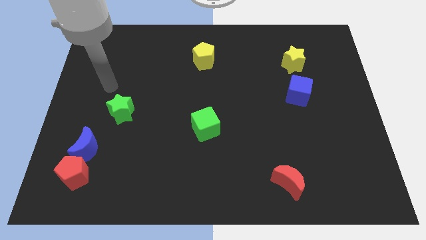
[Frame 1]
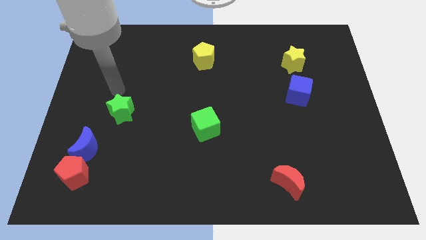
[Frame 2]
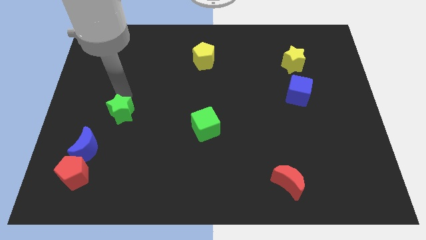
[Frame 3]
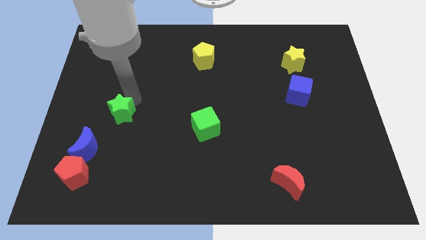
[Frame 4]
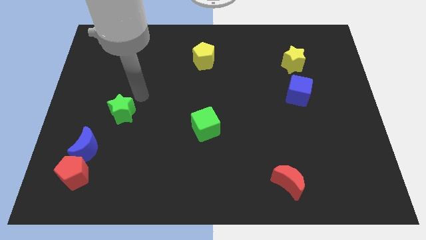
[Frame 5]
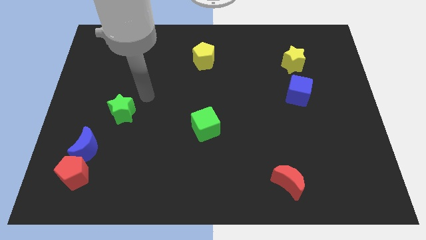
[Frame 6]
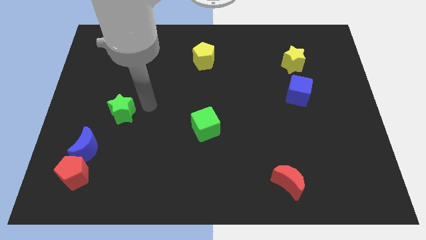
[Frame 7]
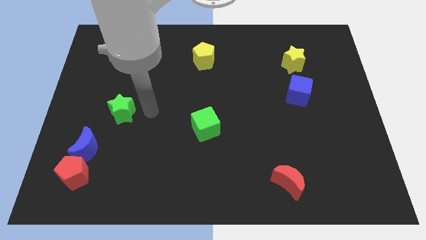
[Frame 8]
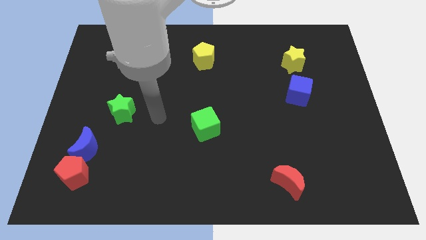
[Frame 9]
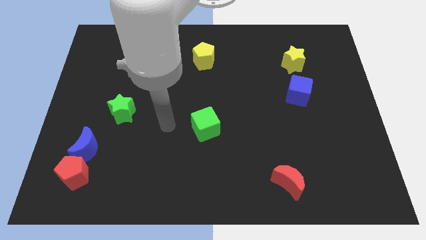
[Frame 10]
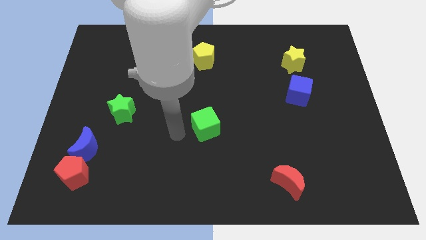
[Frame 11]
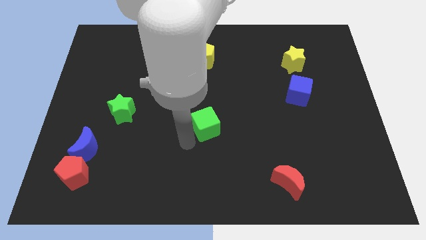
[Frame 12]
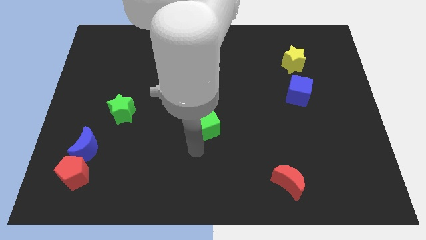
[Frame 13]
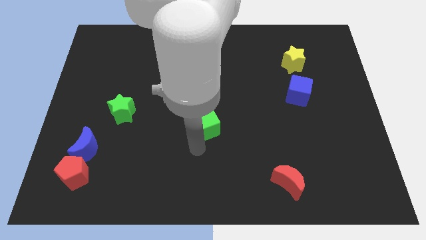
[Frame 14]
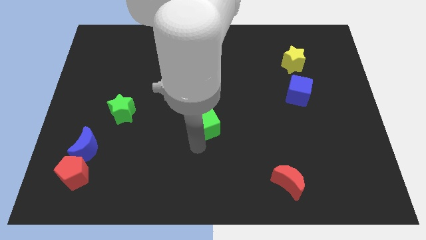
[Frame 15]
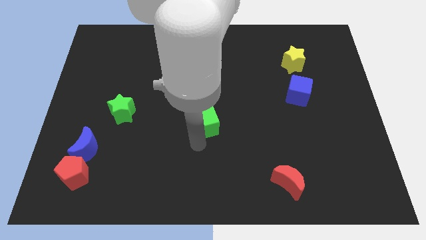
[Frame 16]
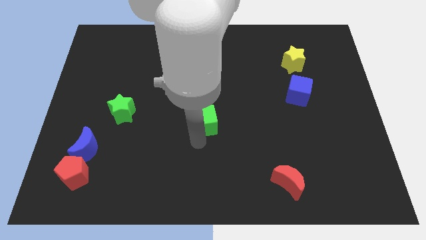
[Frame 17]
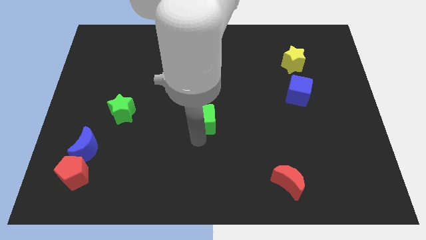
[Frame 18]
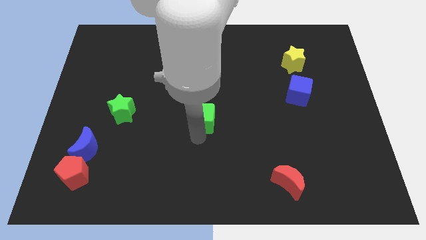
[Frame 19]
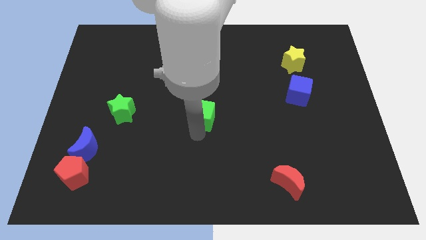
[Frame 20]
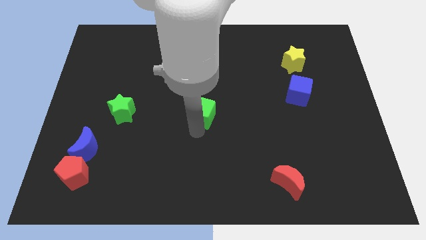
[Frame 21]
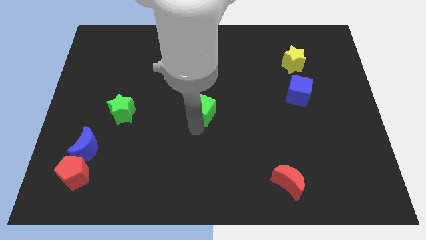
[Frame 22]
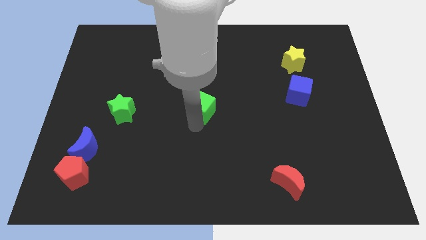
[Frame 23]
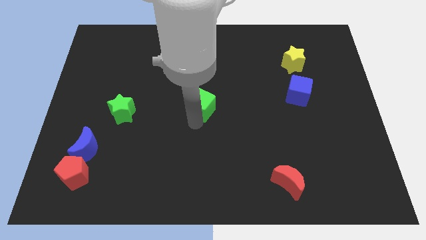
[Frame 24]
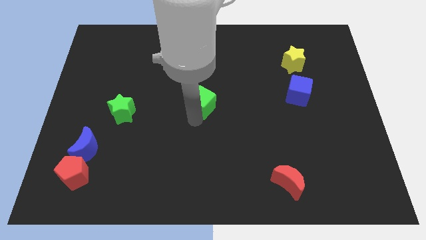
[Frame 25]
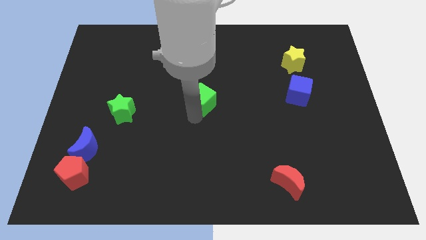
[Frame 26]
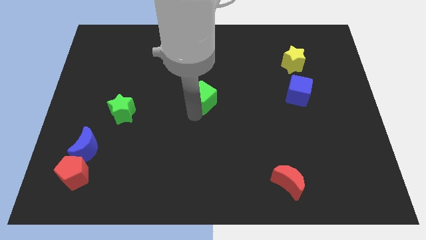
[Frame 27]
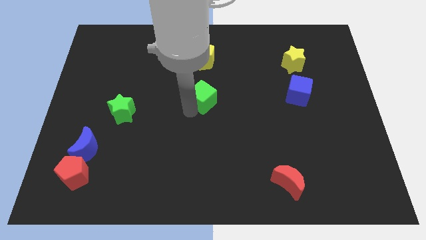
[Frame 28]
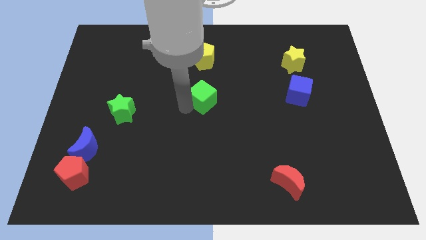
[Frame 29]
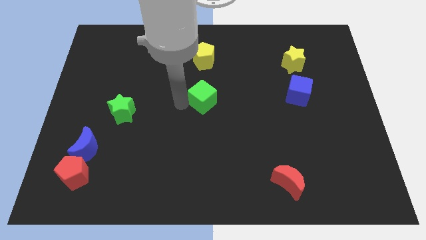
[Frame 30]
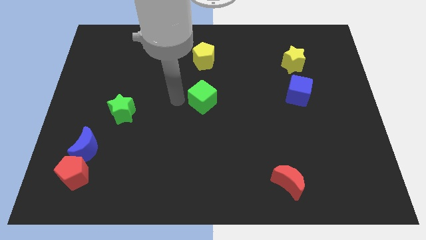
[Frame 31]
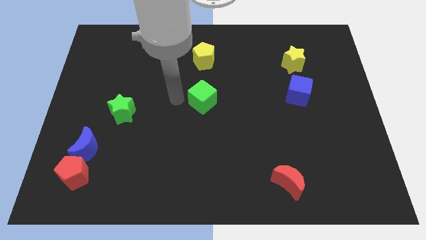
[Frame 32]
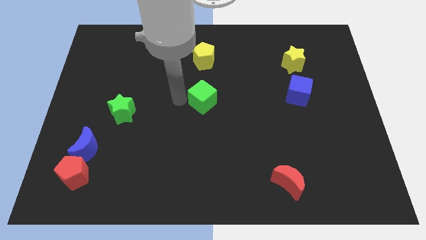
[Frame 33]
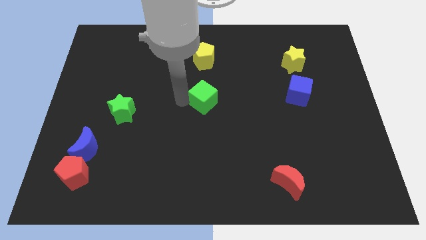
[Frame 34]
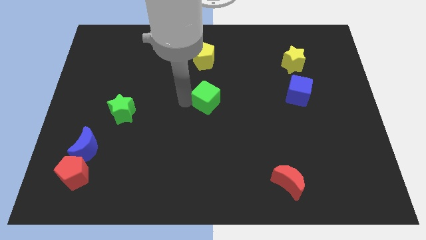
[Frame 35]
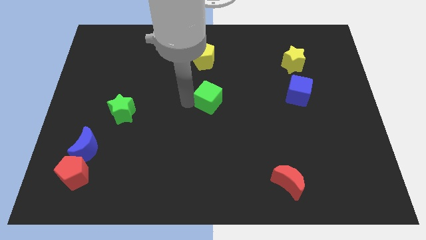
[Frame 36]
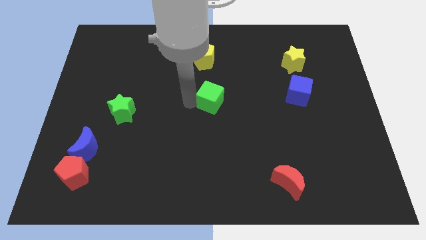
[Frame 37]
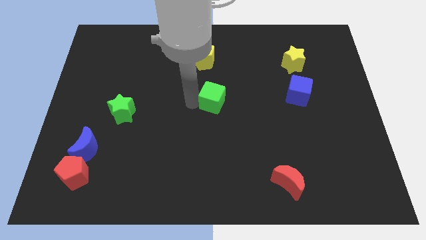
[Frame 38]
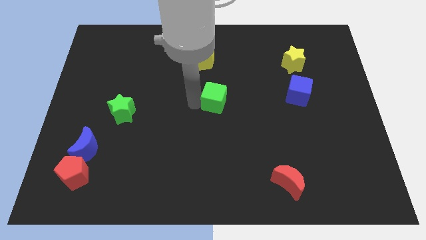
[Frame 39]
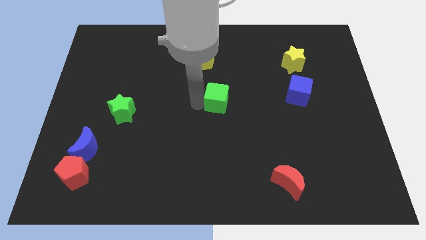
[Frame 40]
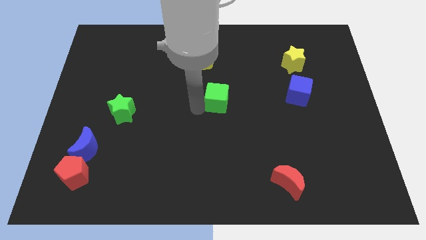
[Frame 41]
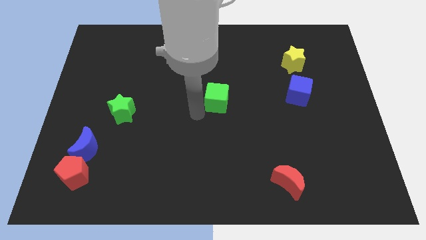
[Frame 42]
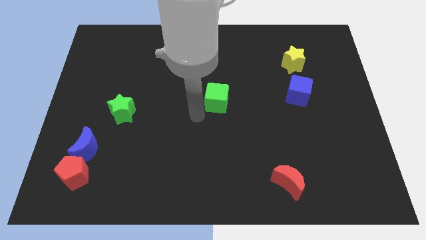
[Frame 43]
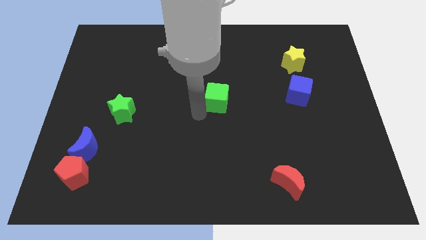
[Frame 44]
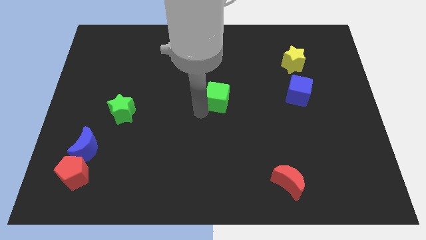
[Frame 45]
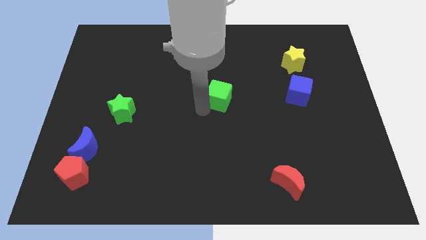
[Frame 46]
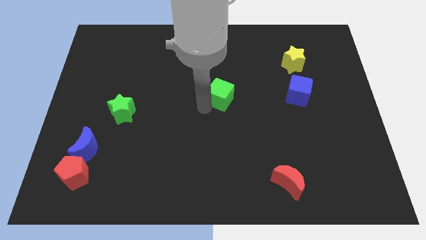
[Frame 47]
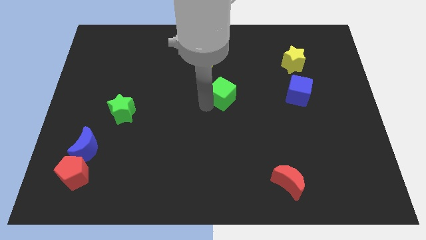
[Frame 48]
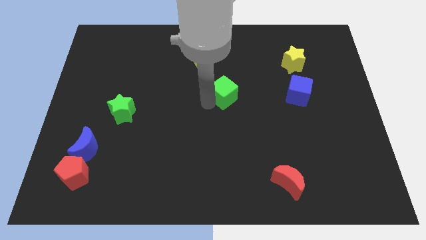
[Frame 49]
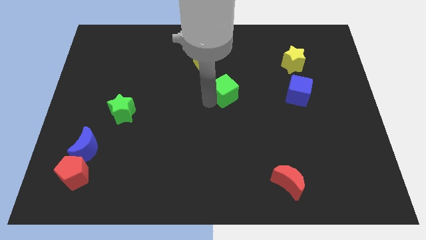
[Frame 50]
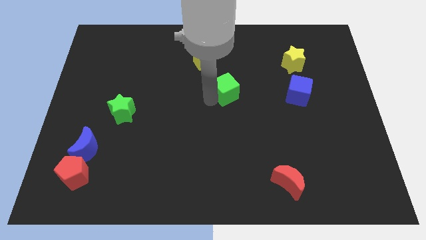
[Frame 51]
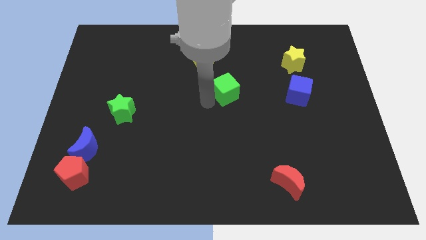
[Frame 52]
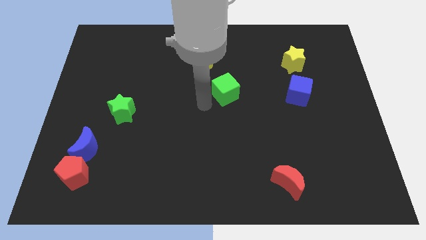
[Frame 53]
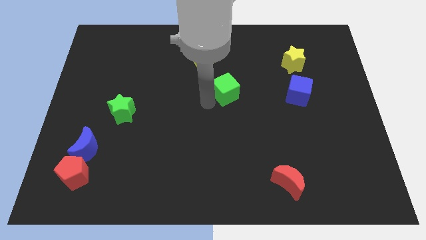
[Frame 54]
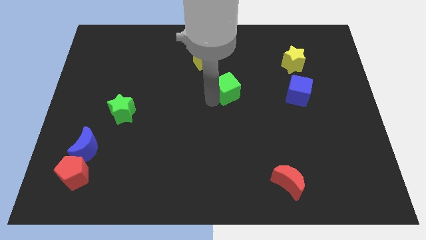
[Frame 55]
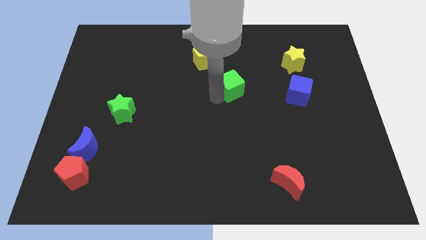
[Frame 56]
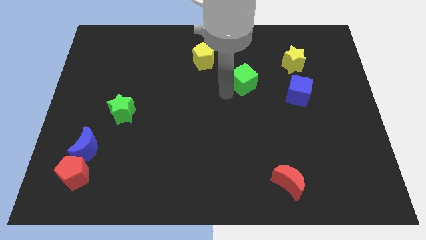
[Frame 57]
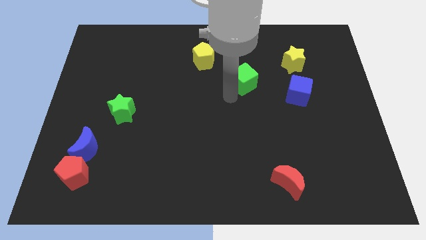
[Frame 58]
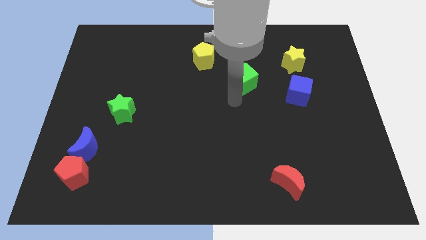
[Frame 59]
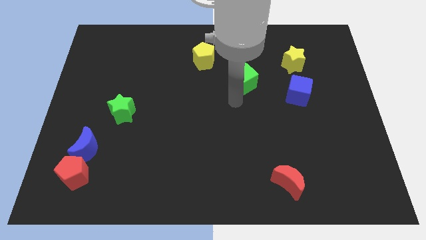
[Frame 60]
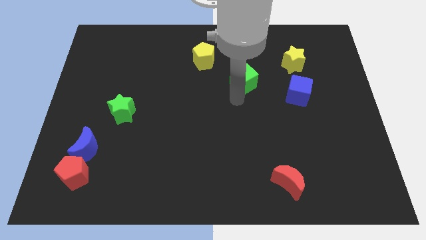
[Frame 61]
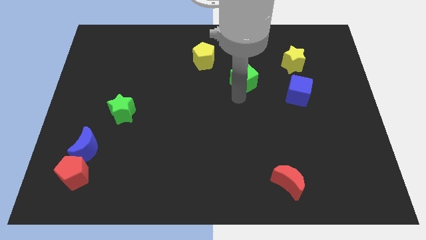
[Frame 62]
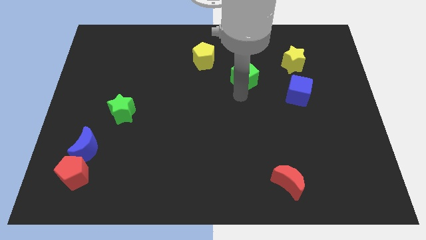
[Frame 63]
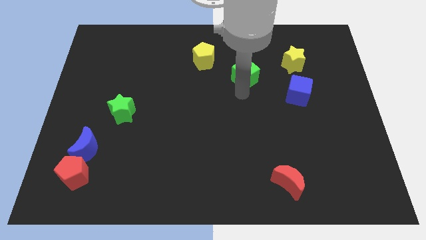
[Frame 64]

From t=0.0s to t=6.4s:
slide the green cube to the left of the yellow star
